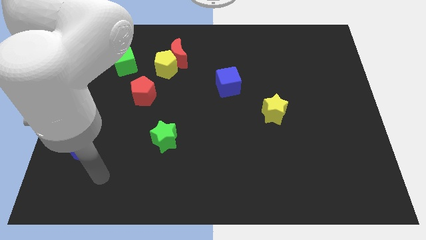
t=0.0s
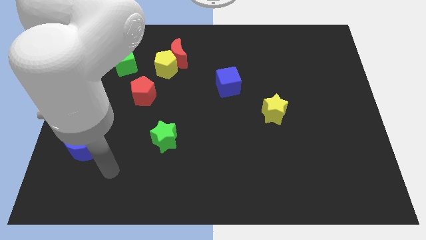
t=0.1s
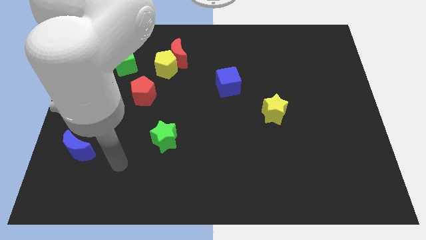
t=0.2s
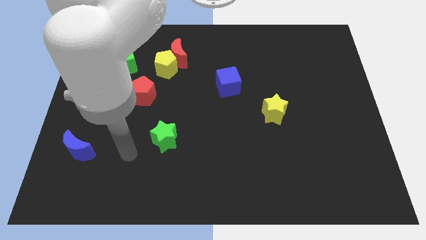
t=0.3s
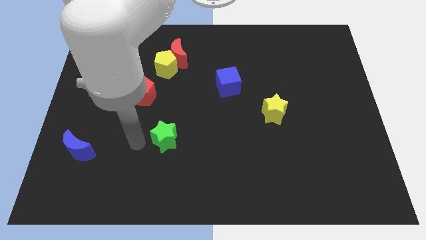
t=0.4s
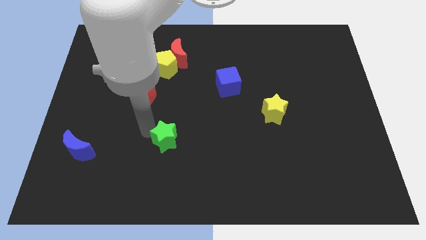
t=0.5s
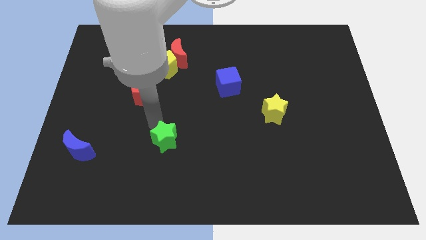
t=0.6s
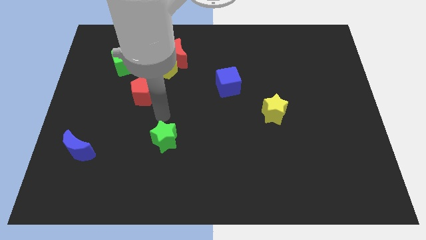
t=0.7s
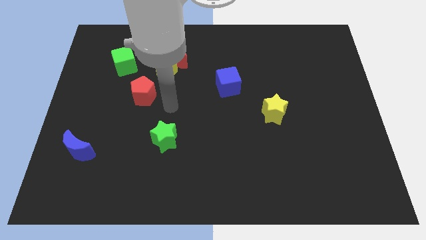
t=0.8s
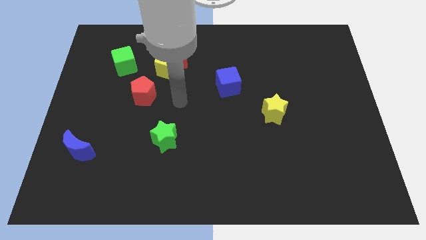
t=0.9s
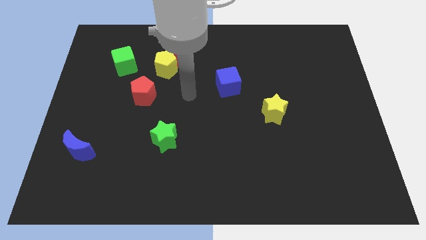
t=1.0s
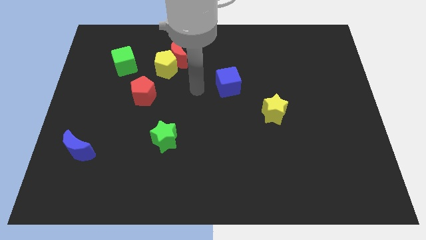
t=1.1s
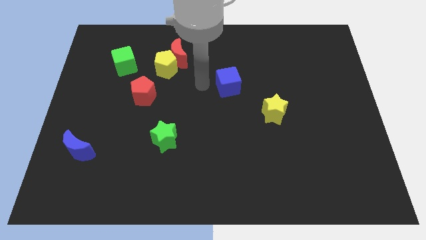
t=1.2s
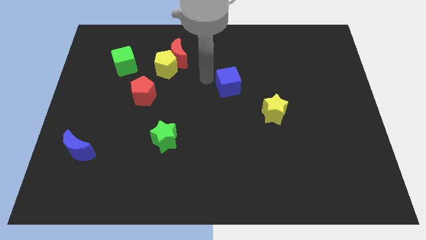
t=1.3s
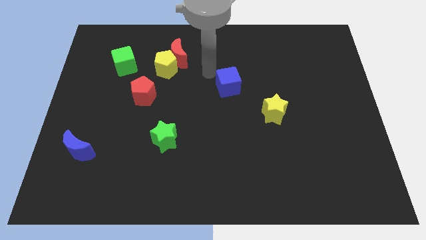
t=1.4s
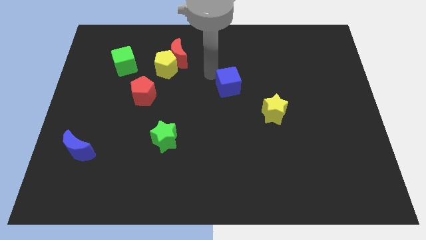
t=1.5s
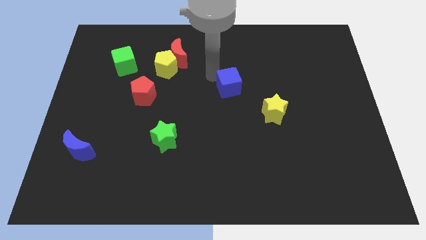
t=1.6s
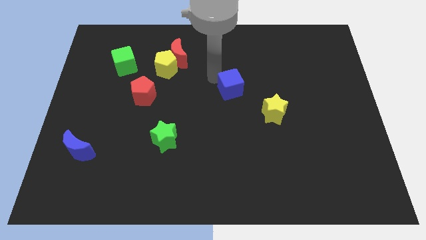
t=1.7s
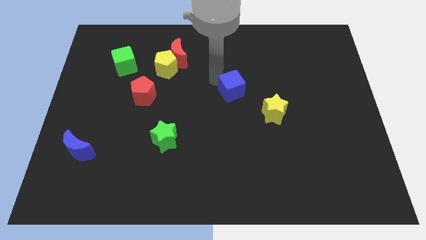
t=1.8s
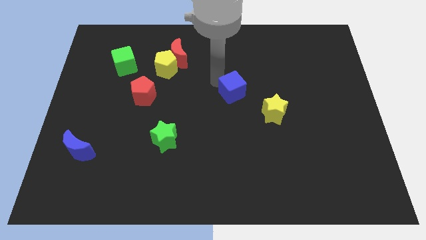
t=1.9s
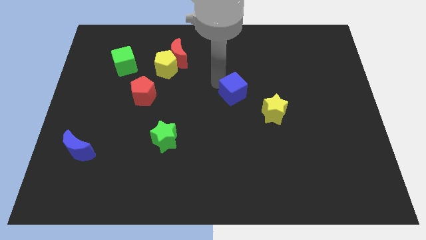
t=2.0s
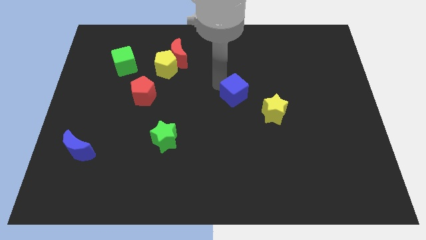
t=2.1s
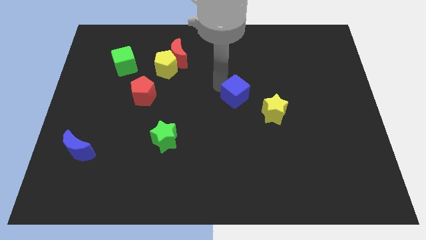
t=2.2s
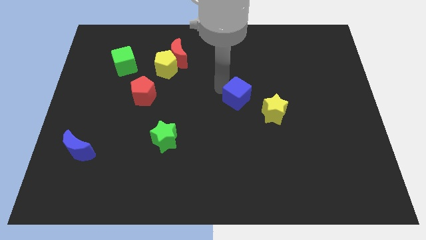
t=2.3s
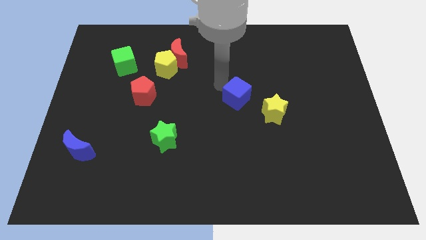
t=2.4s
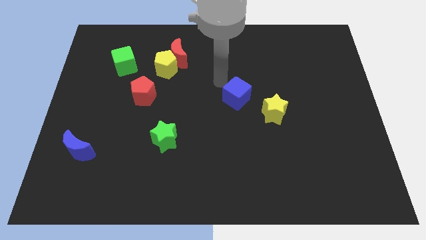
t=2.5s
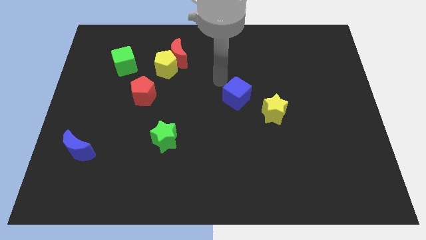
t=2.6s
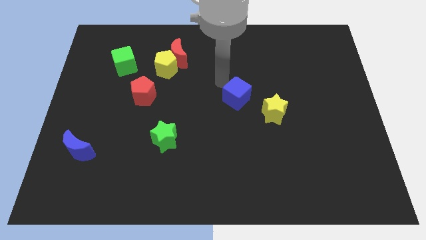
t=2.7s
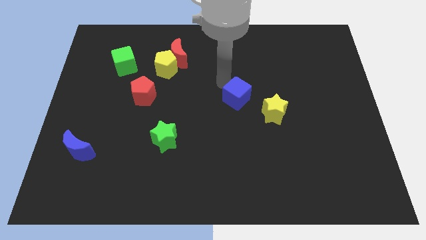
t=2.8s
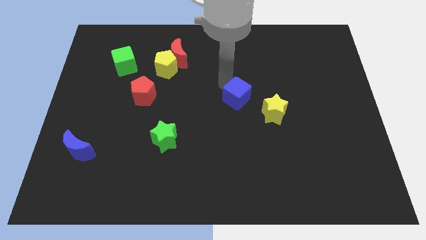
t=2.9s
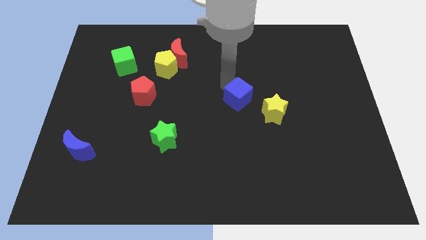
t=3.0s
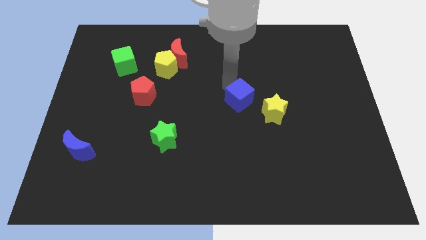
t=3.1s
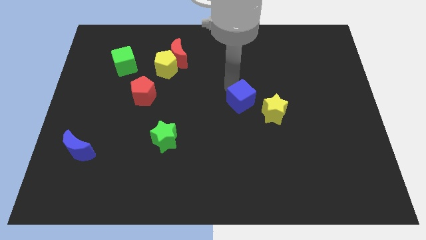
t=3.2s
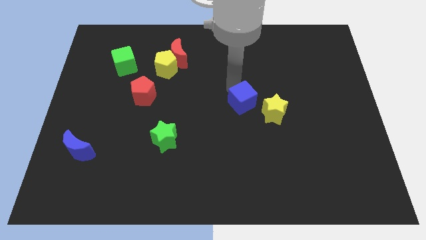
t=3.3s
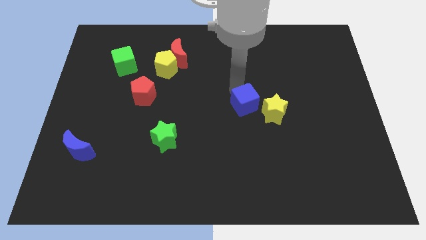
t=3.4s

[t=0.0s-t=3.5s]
slightly push the blue cube down and then right

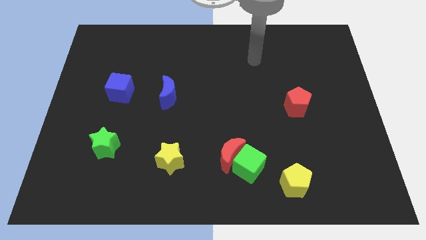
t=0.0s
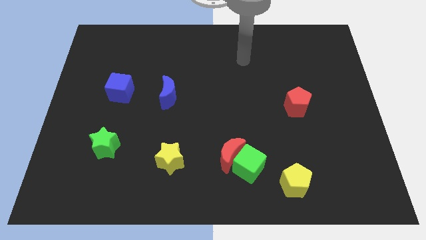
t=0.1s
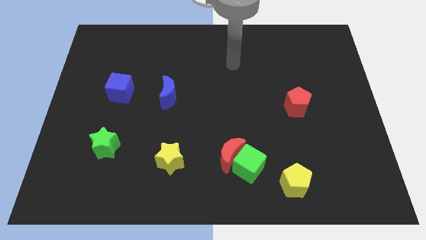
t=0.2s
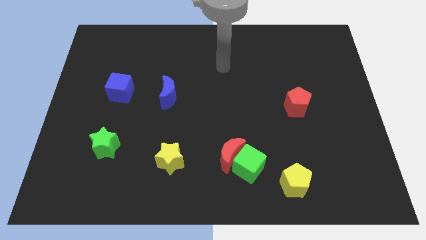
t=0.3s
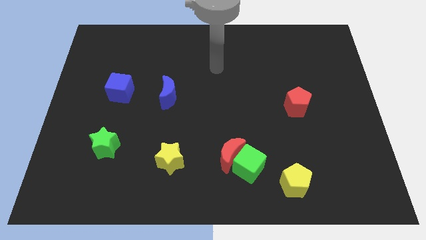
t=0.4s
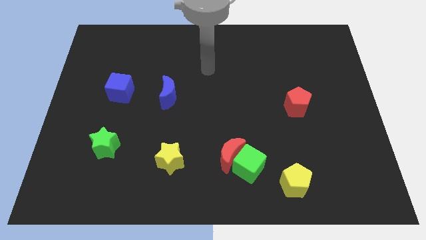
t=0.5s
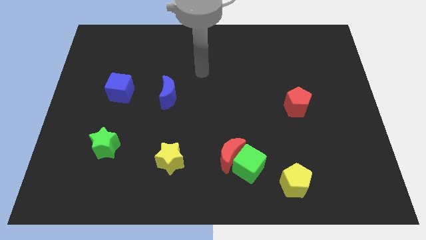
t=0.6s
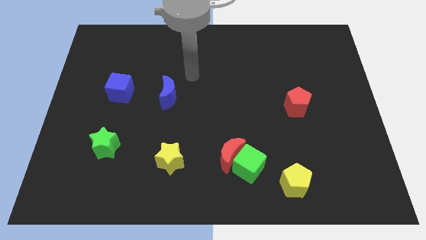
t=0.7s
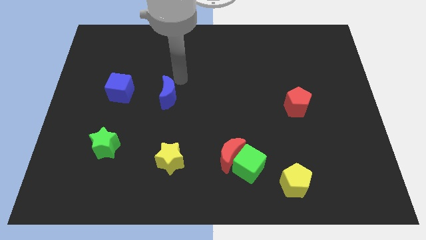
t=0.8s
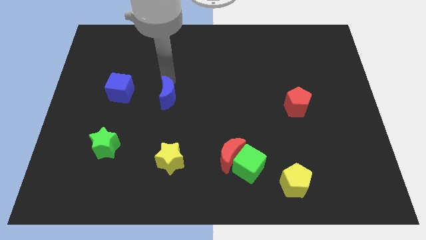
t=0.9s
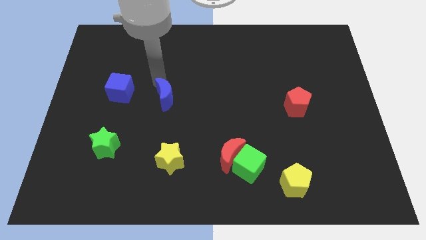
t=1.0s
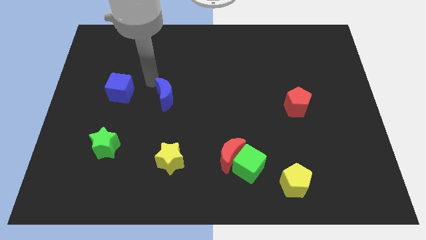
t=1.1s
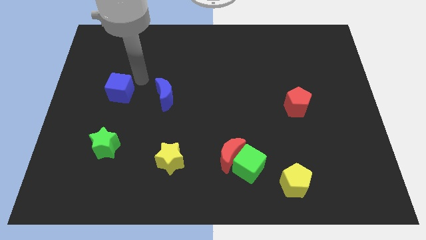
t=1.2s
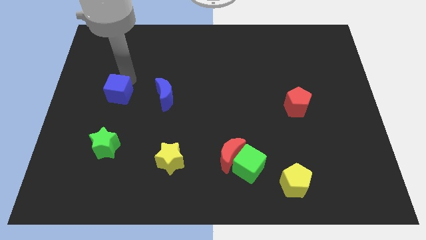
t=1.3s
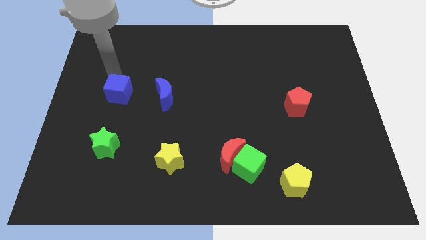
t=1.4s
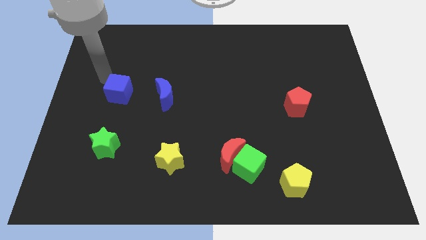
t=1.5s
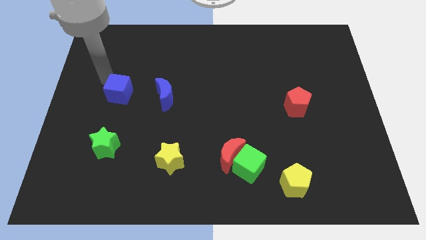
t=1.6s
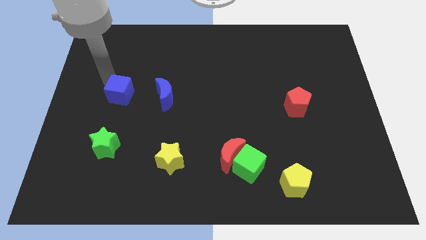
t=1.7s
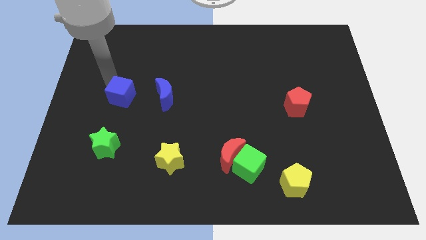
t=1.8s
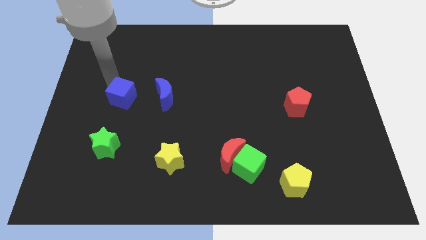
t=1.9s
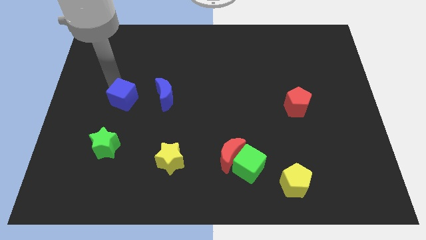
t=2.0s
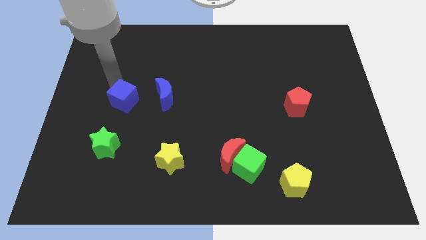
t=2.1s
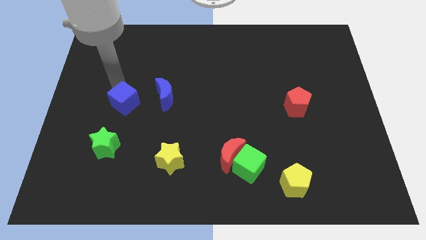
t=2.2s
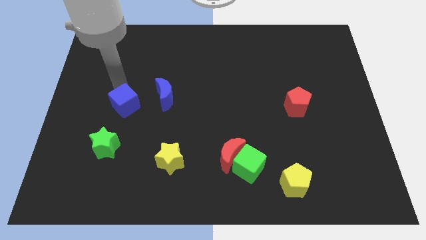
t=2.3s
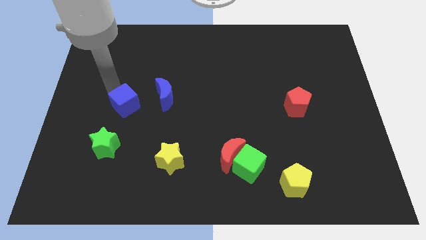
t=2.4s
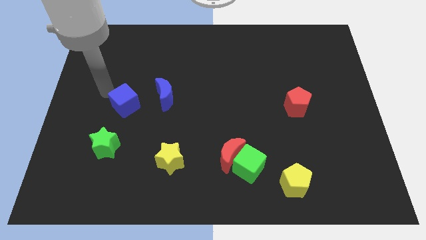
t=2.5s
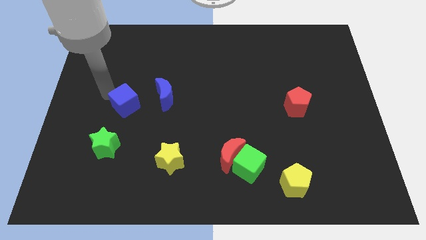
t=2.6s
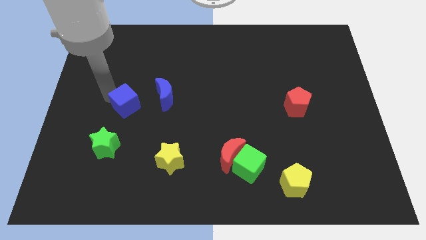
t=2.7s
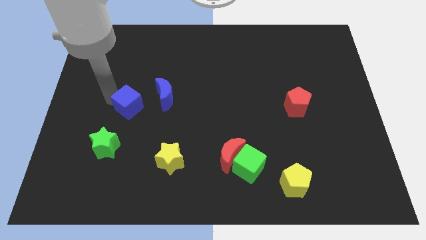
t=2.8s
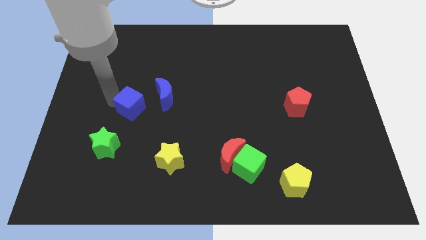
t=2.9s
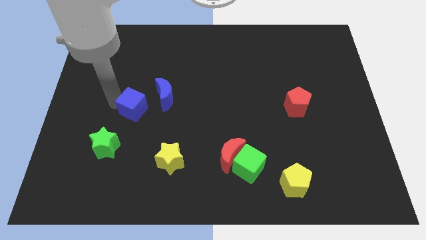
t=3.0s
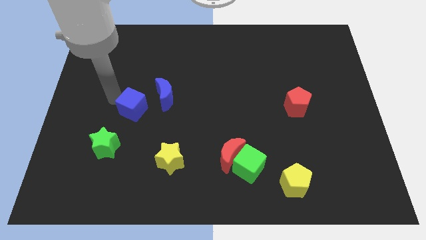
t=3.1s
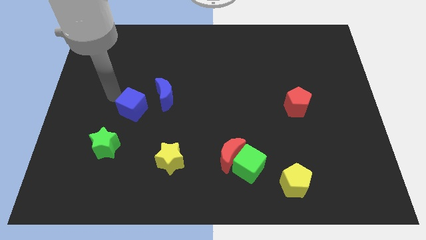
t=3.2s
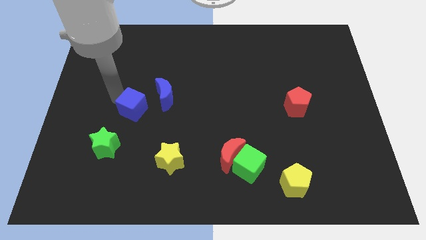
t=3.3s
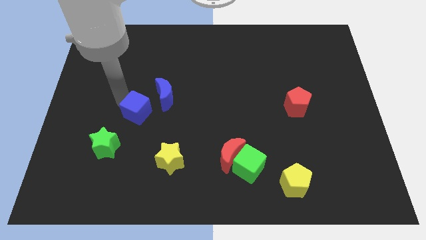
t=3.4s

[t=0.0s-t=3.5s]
slide the blue cube slightly diagonally downwards and to the right

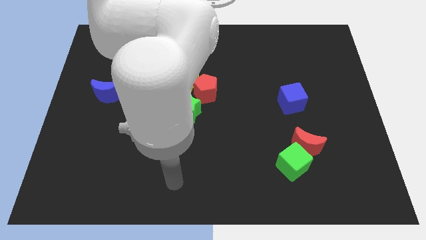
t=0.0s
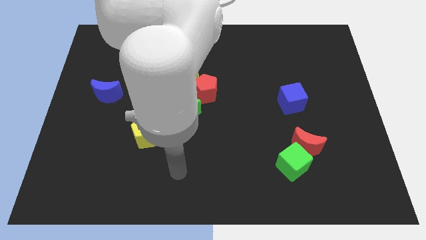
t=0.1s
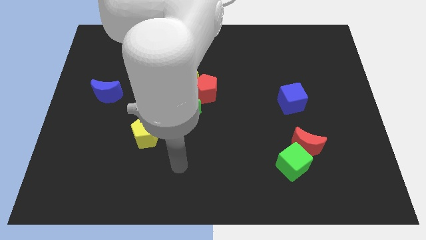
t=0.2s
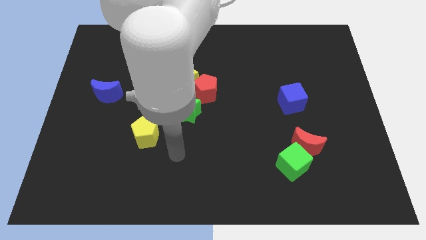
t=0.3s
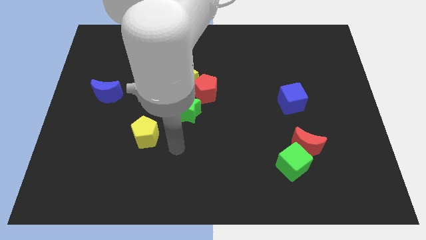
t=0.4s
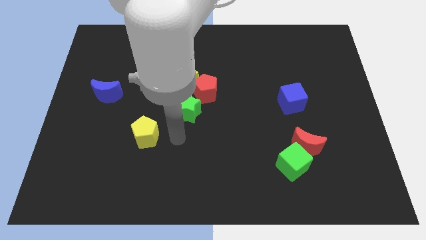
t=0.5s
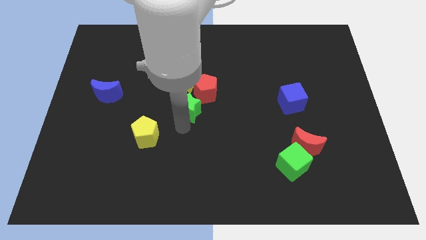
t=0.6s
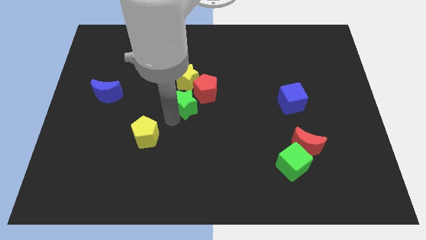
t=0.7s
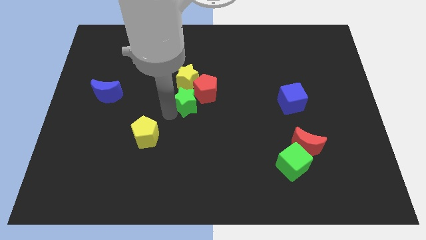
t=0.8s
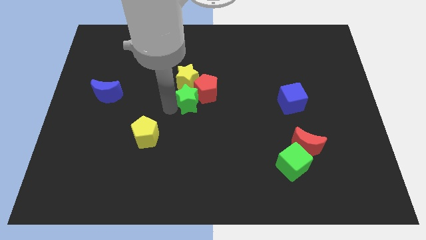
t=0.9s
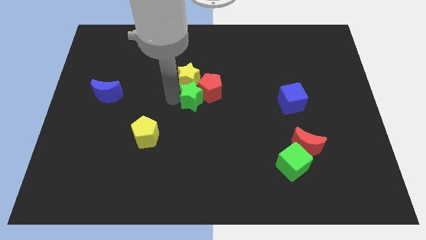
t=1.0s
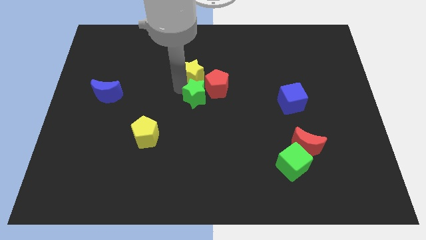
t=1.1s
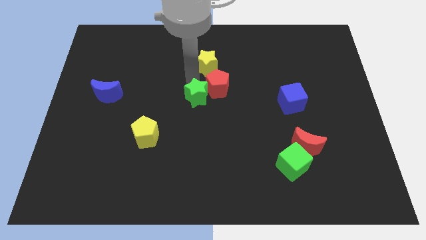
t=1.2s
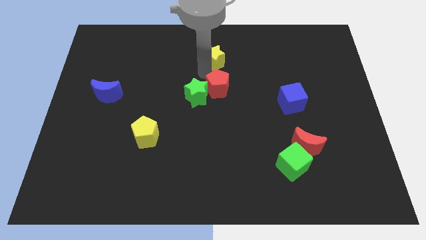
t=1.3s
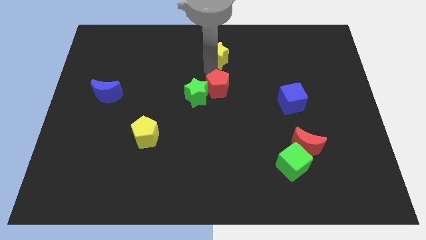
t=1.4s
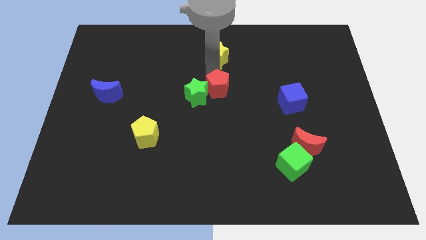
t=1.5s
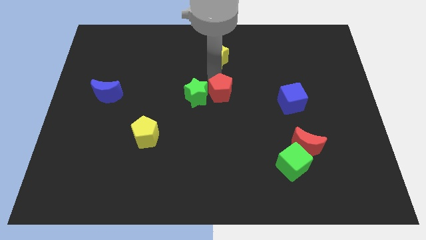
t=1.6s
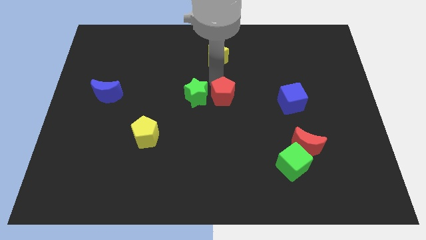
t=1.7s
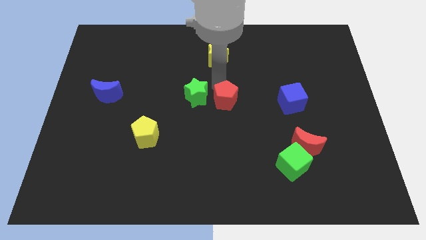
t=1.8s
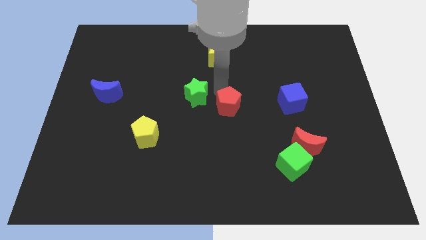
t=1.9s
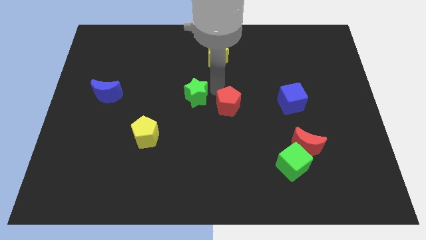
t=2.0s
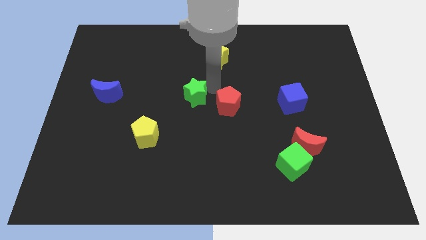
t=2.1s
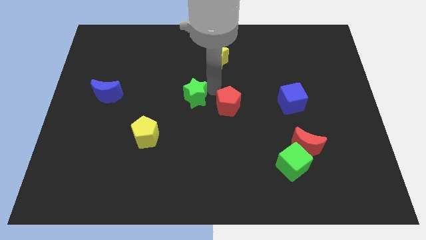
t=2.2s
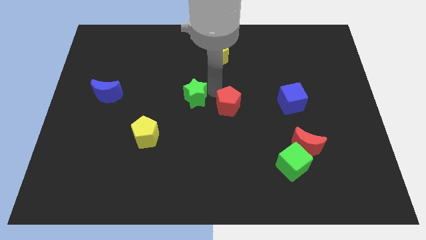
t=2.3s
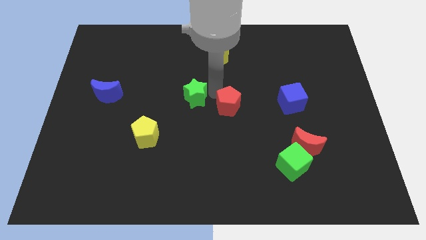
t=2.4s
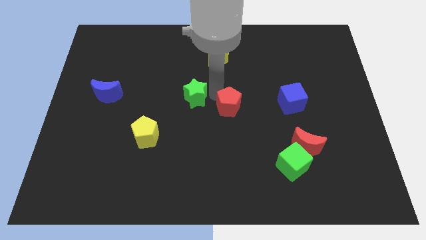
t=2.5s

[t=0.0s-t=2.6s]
move the red pentagon somewhat down and right
